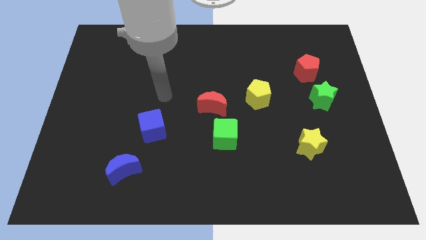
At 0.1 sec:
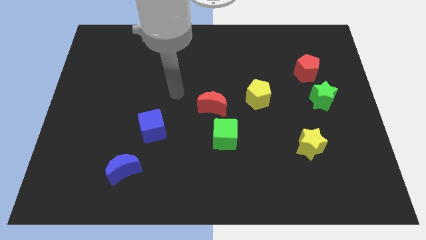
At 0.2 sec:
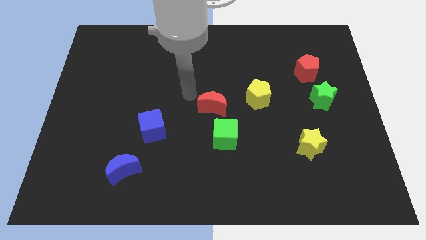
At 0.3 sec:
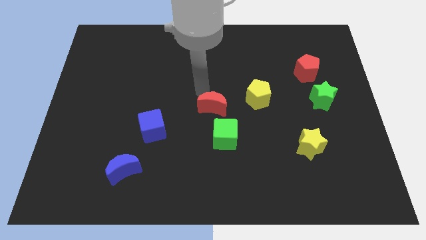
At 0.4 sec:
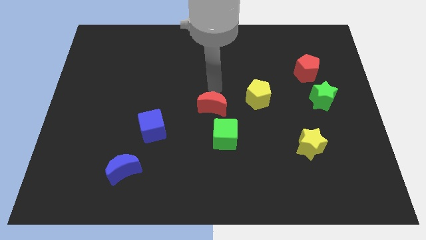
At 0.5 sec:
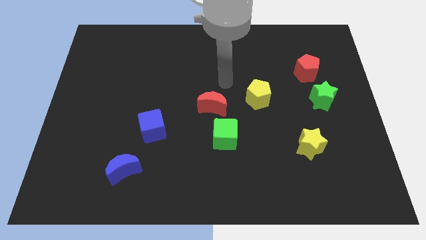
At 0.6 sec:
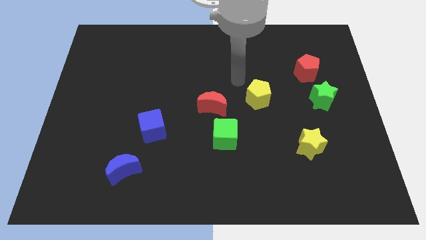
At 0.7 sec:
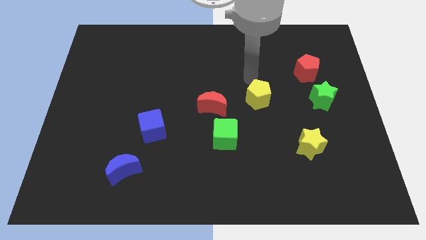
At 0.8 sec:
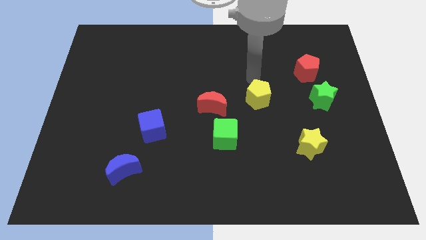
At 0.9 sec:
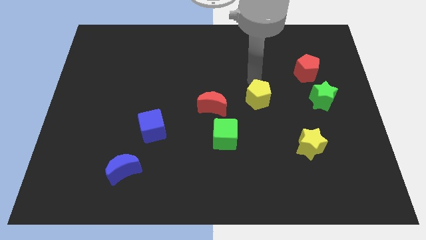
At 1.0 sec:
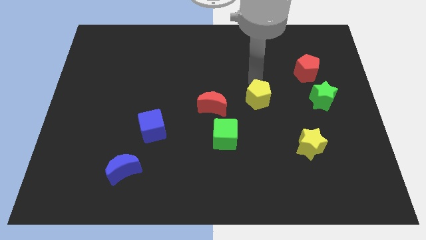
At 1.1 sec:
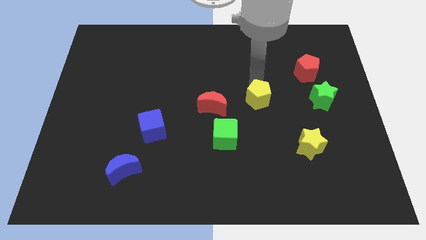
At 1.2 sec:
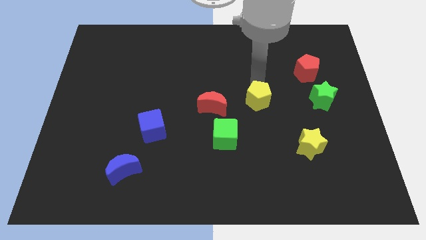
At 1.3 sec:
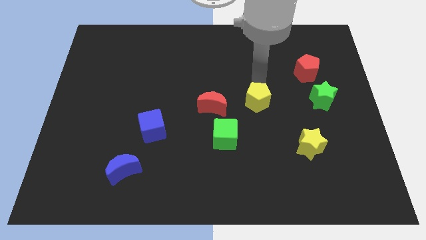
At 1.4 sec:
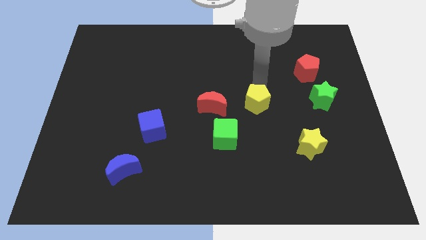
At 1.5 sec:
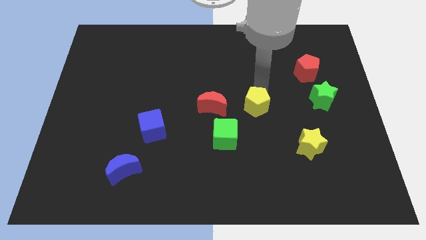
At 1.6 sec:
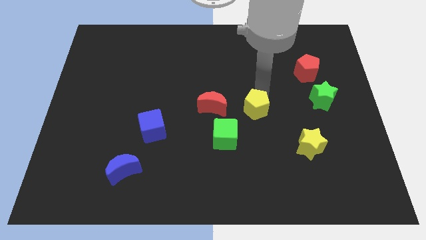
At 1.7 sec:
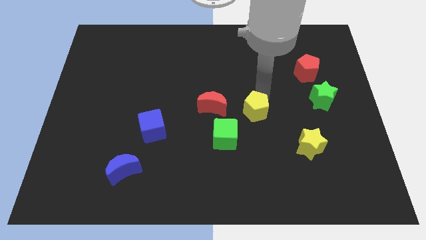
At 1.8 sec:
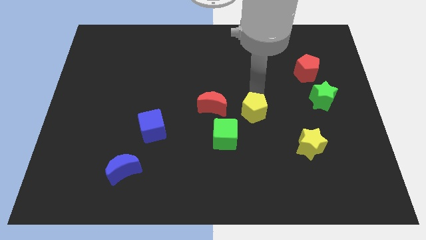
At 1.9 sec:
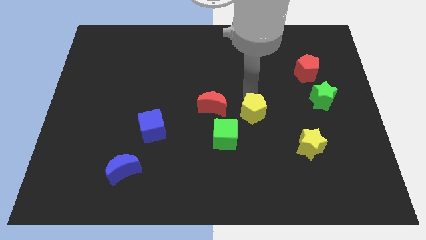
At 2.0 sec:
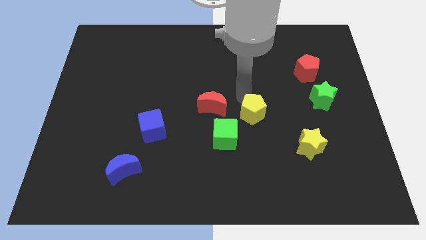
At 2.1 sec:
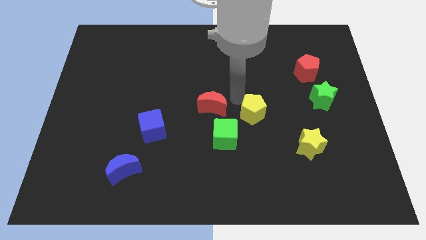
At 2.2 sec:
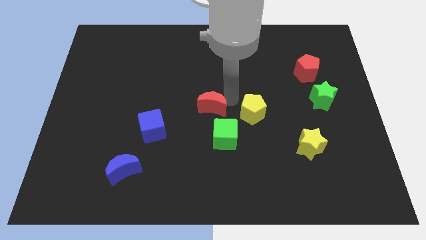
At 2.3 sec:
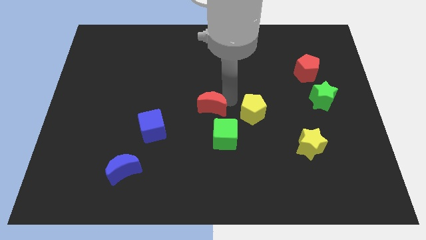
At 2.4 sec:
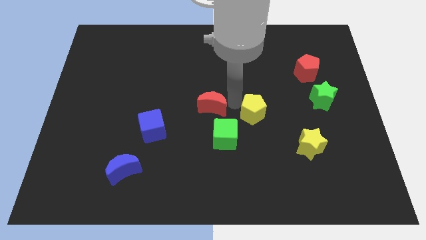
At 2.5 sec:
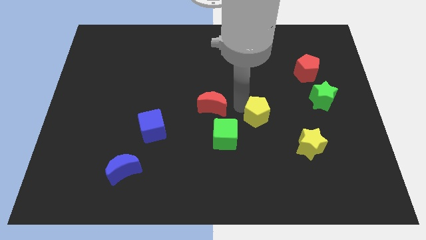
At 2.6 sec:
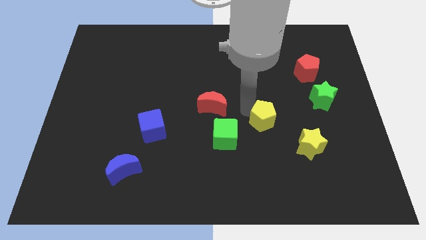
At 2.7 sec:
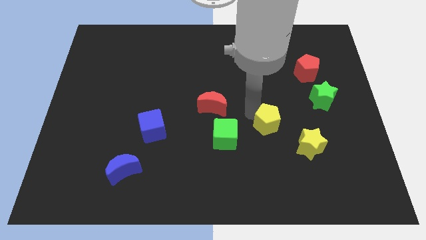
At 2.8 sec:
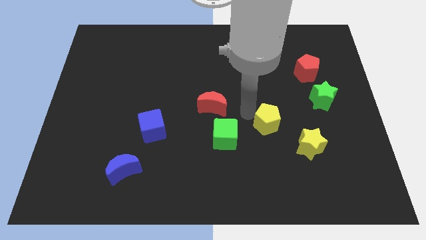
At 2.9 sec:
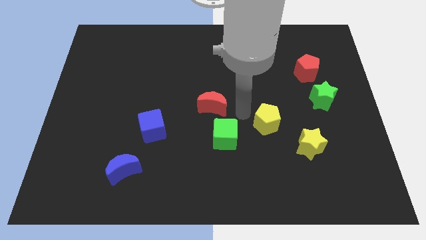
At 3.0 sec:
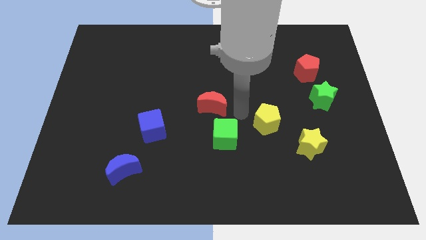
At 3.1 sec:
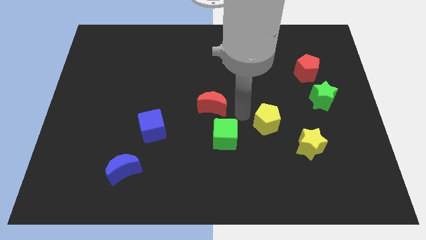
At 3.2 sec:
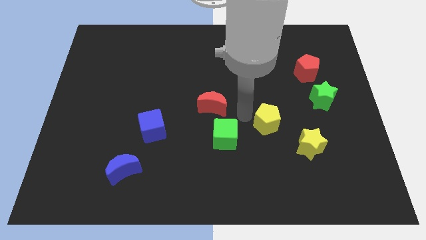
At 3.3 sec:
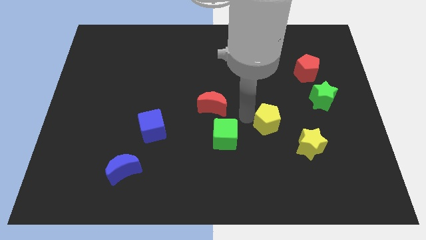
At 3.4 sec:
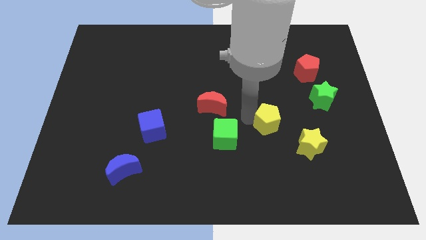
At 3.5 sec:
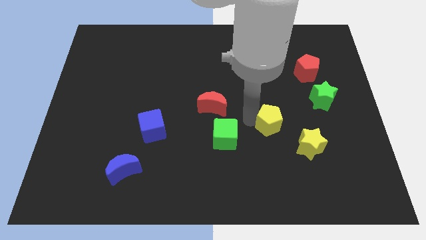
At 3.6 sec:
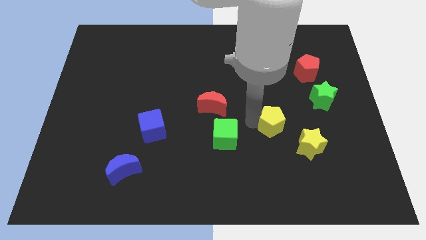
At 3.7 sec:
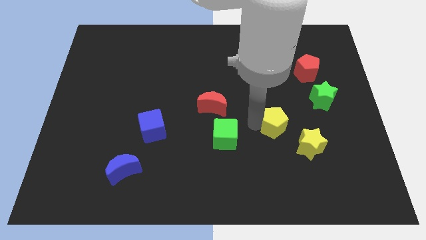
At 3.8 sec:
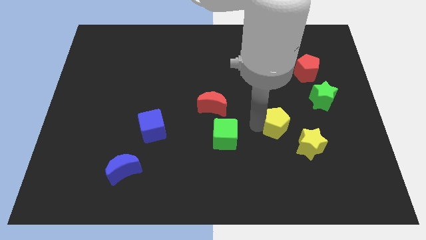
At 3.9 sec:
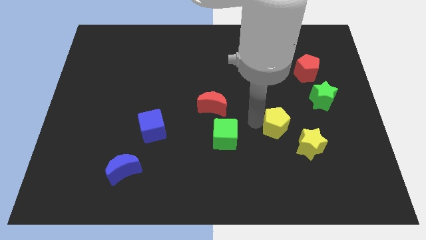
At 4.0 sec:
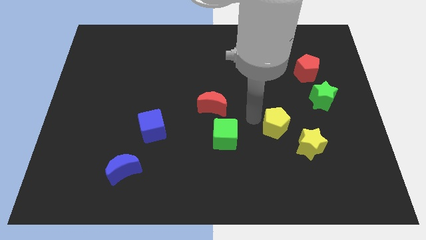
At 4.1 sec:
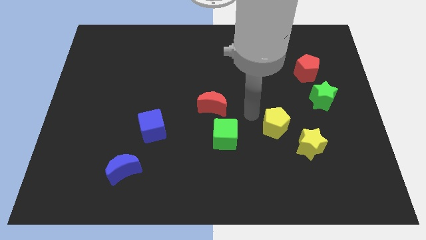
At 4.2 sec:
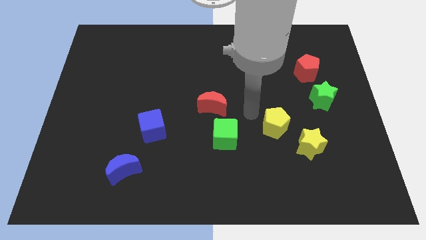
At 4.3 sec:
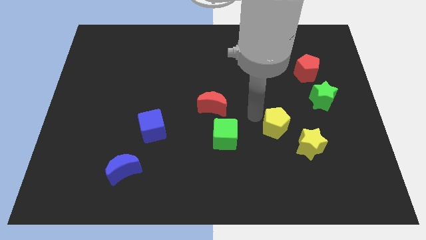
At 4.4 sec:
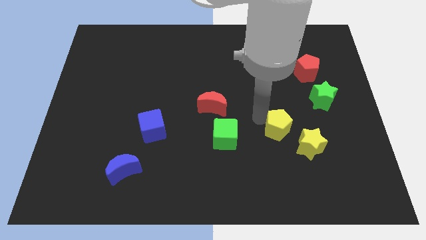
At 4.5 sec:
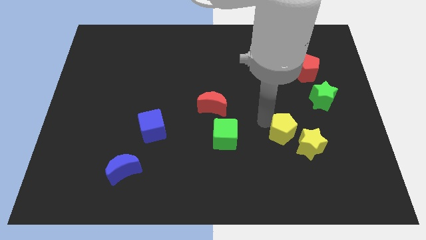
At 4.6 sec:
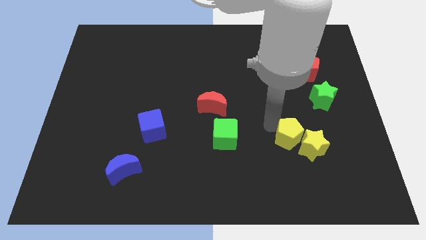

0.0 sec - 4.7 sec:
move the yellow pentagon close to the yellow star

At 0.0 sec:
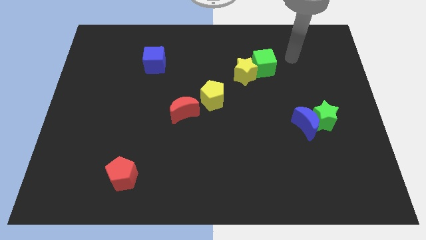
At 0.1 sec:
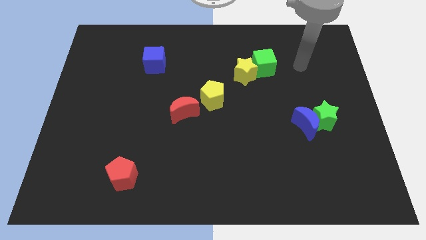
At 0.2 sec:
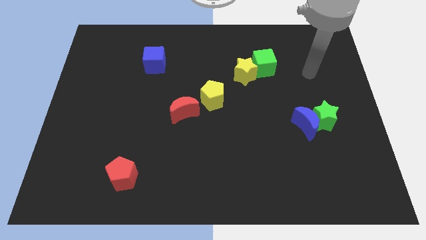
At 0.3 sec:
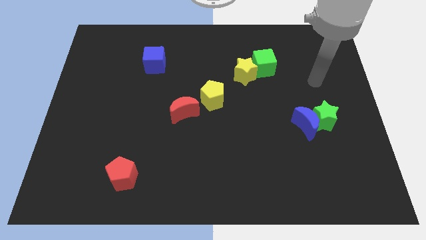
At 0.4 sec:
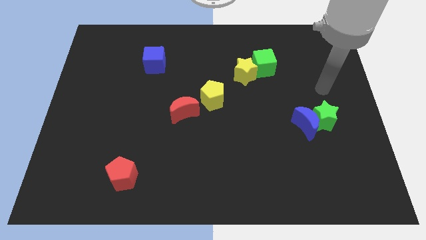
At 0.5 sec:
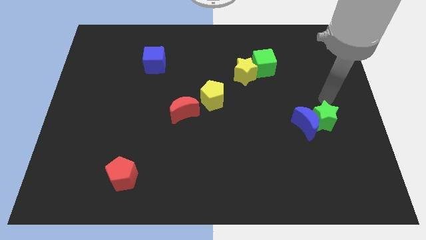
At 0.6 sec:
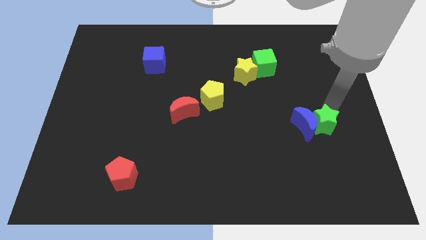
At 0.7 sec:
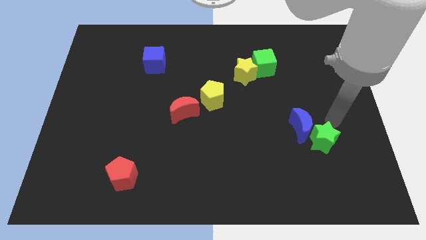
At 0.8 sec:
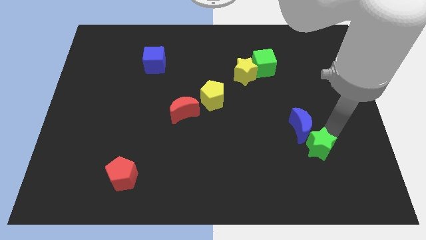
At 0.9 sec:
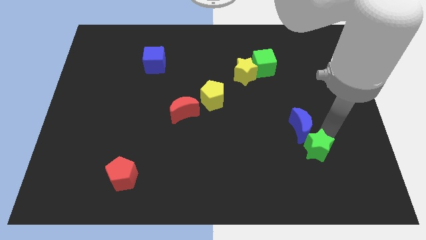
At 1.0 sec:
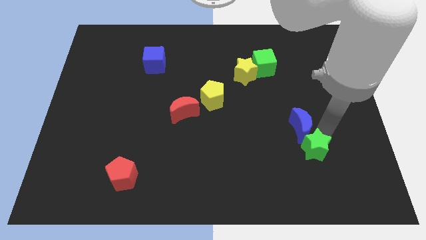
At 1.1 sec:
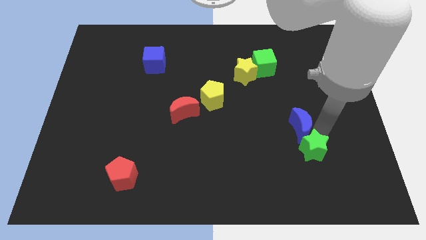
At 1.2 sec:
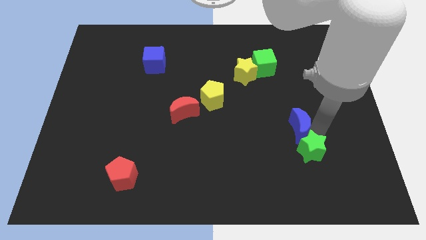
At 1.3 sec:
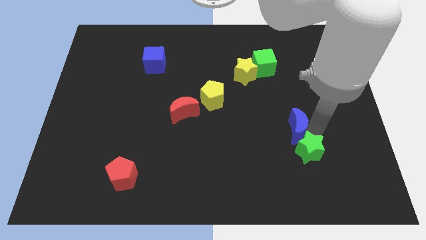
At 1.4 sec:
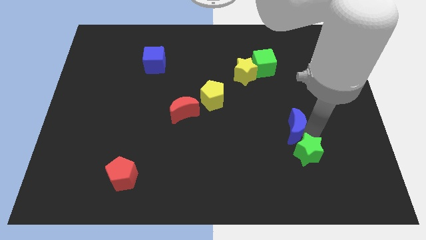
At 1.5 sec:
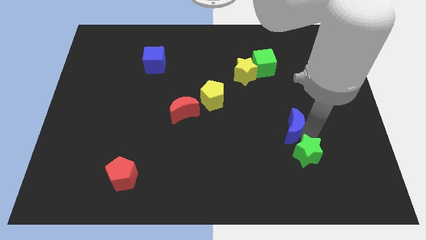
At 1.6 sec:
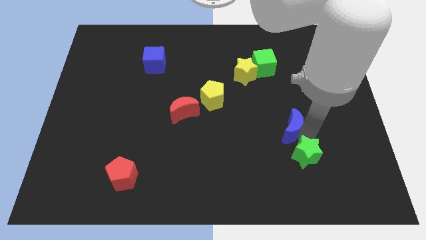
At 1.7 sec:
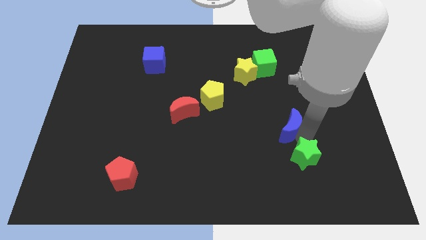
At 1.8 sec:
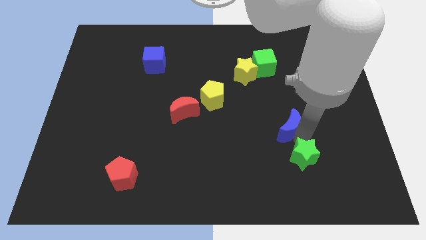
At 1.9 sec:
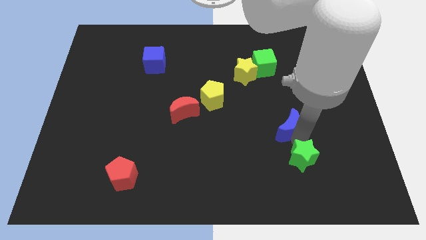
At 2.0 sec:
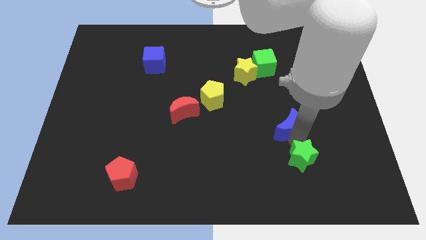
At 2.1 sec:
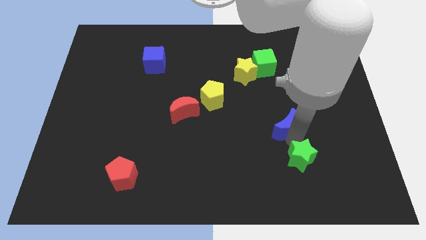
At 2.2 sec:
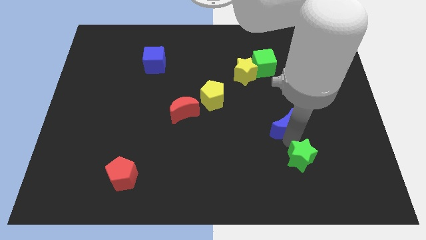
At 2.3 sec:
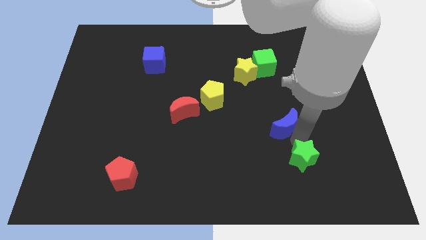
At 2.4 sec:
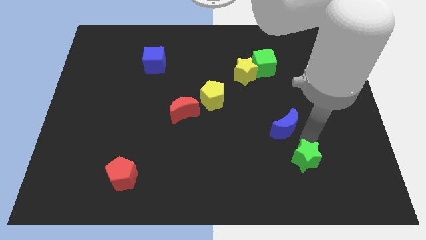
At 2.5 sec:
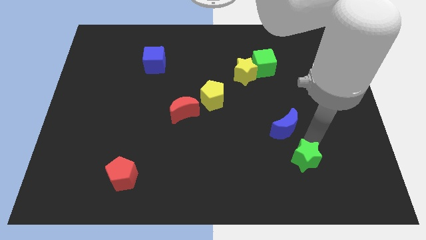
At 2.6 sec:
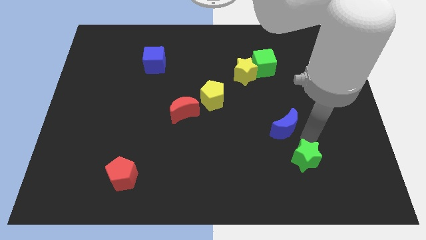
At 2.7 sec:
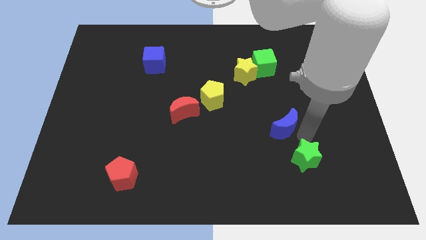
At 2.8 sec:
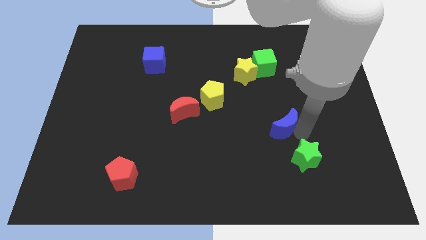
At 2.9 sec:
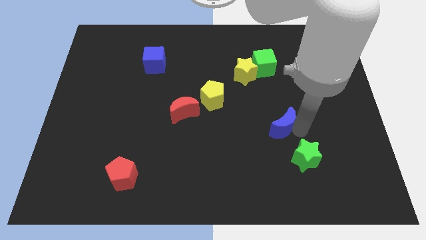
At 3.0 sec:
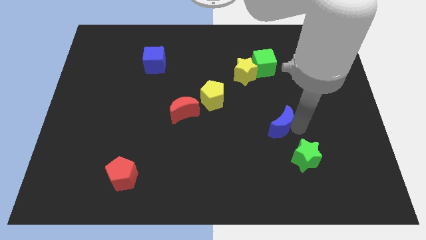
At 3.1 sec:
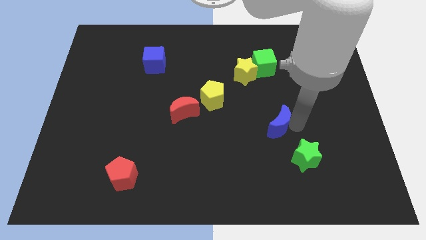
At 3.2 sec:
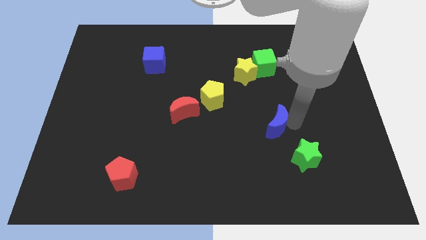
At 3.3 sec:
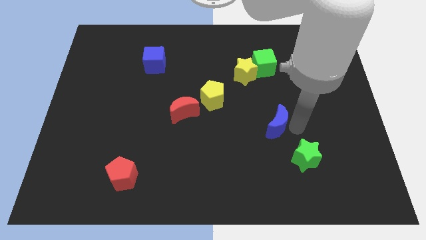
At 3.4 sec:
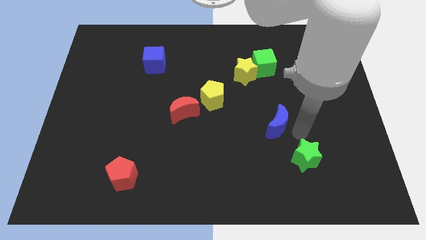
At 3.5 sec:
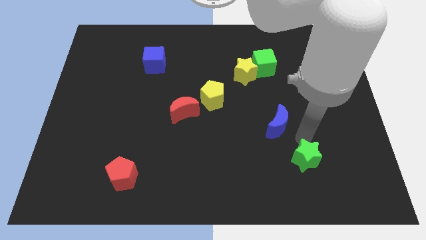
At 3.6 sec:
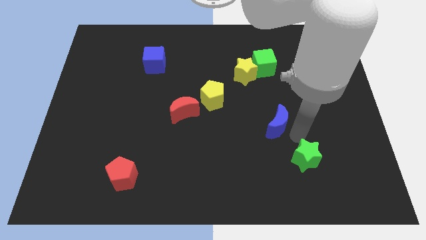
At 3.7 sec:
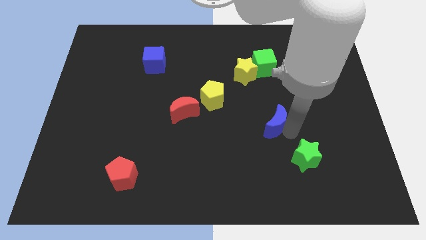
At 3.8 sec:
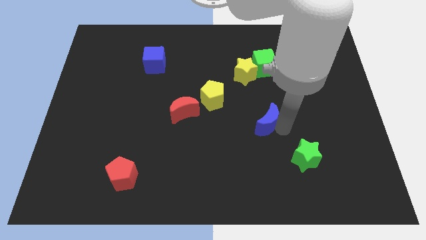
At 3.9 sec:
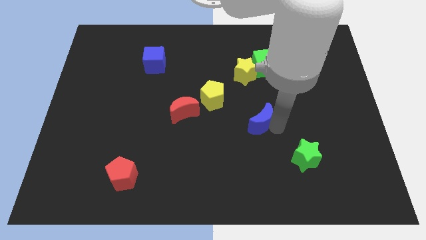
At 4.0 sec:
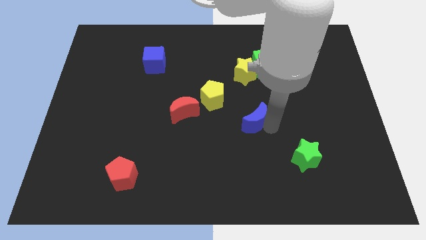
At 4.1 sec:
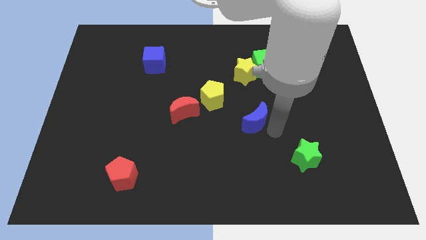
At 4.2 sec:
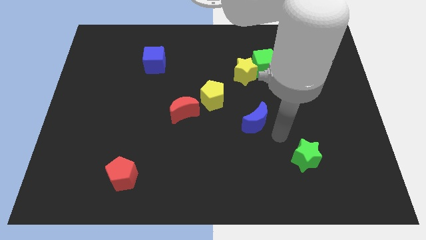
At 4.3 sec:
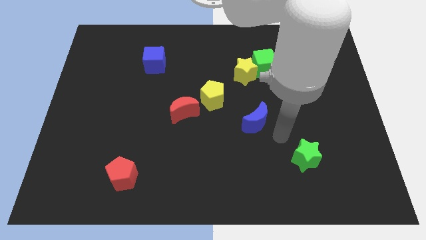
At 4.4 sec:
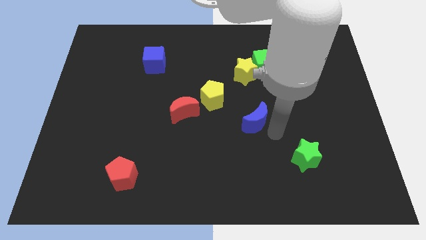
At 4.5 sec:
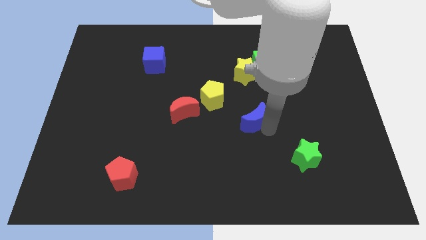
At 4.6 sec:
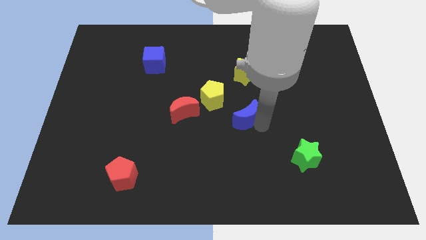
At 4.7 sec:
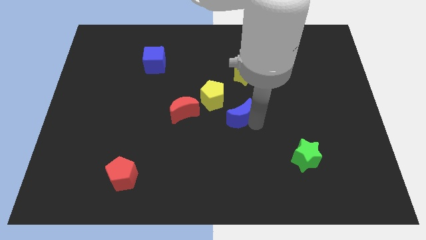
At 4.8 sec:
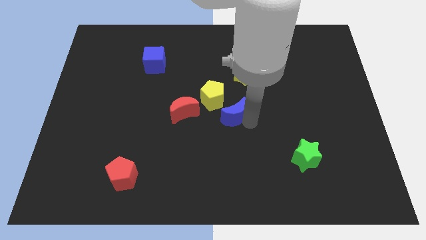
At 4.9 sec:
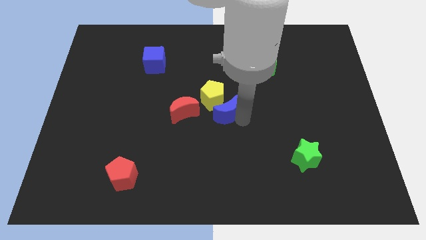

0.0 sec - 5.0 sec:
put the blue moon towards the yellow pentagon
